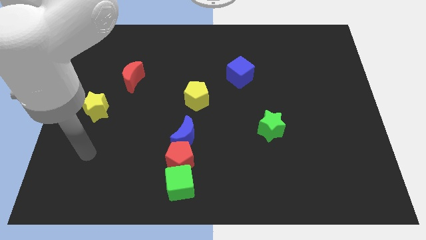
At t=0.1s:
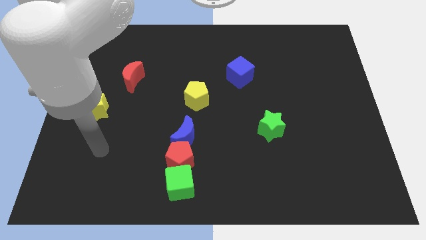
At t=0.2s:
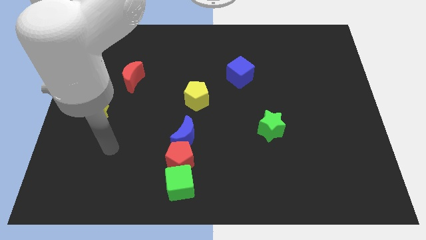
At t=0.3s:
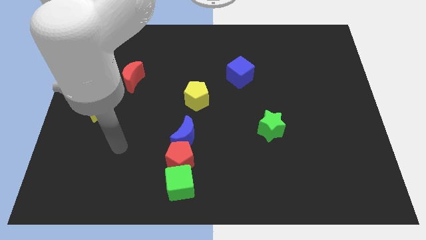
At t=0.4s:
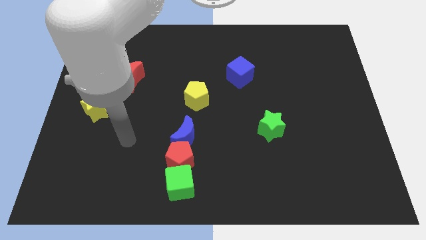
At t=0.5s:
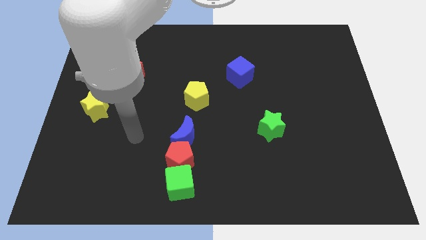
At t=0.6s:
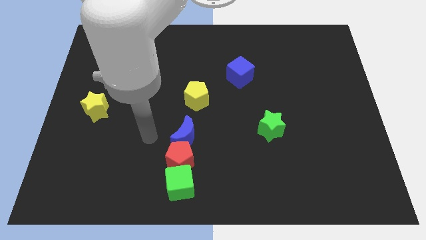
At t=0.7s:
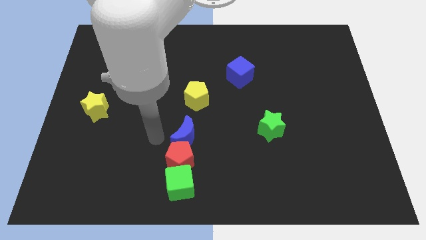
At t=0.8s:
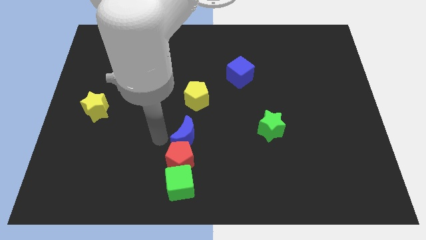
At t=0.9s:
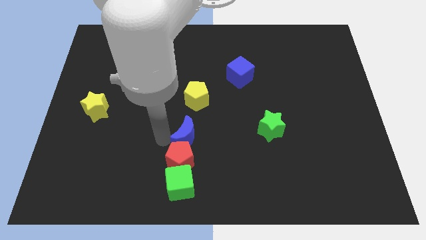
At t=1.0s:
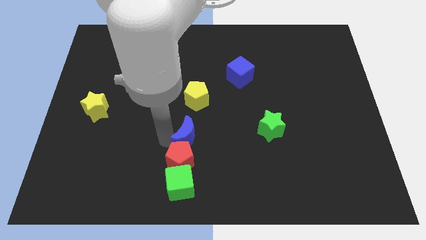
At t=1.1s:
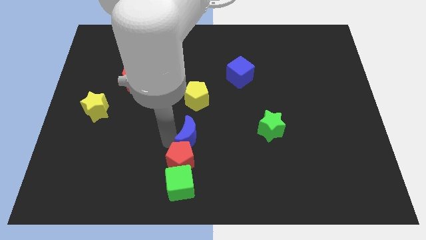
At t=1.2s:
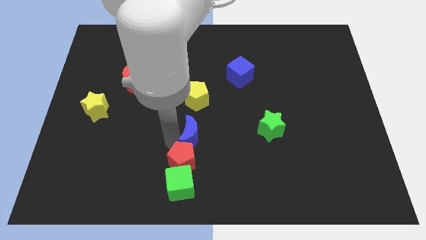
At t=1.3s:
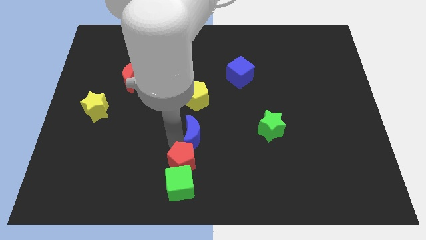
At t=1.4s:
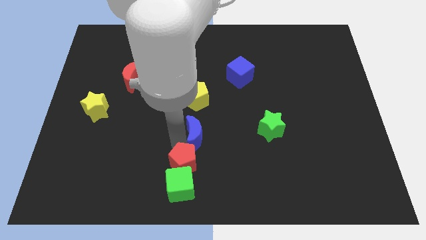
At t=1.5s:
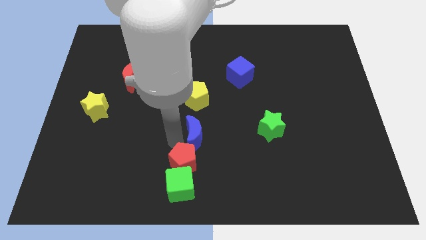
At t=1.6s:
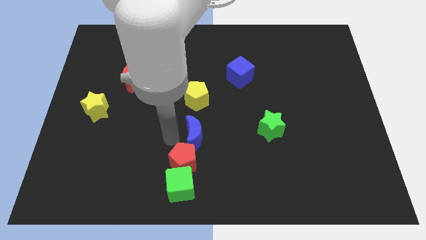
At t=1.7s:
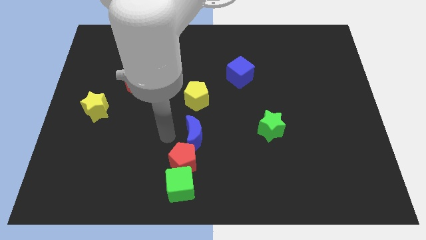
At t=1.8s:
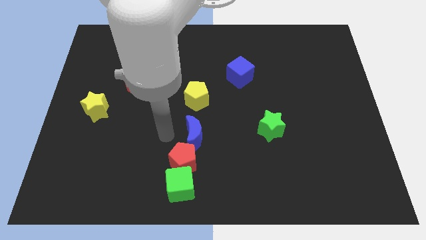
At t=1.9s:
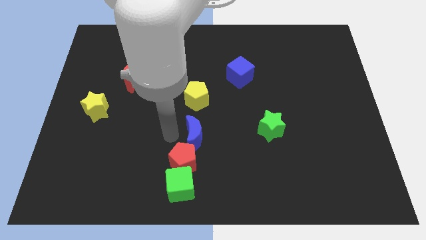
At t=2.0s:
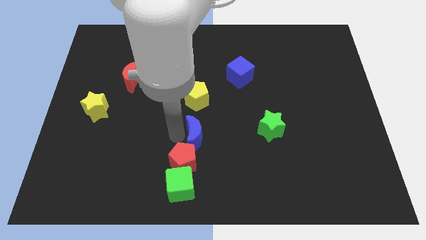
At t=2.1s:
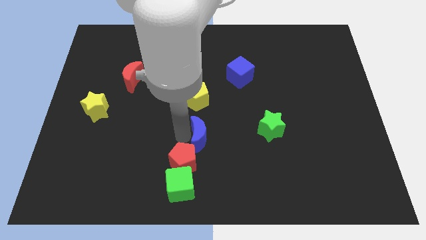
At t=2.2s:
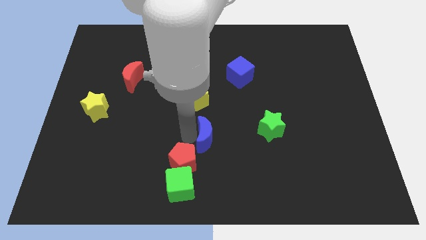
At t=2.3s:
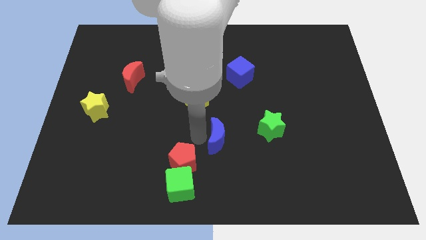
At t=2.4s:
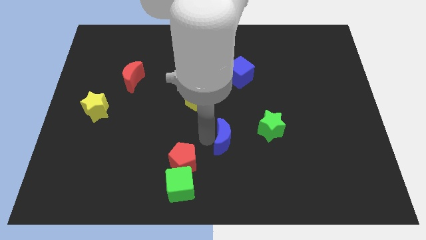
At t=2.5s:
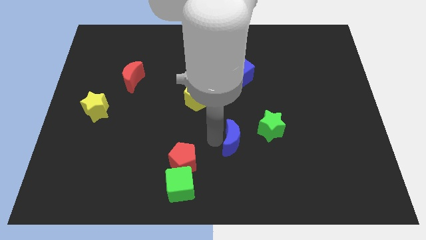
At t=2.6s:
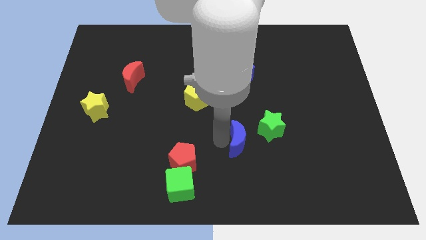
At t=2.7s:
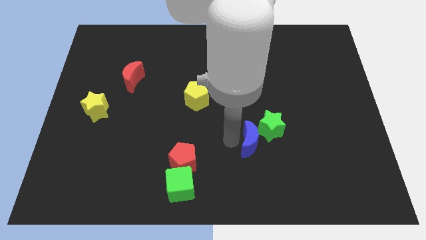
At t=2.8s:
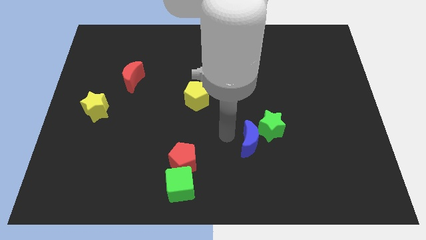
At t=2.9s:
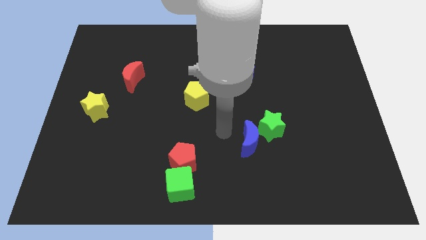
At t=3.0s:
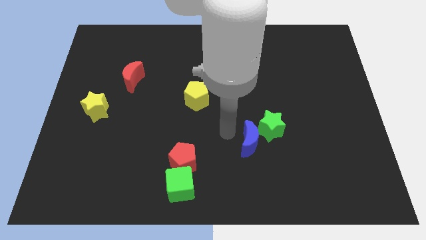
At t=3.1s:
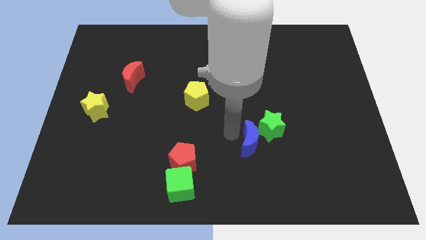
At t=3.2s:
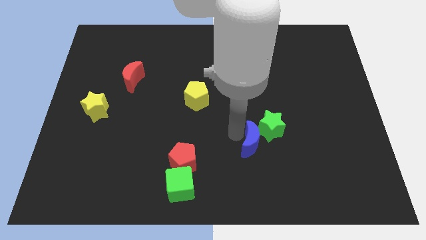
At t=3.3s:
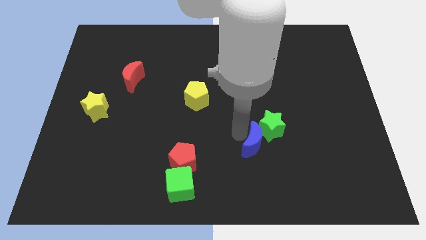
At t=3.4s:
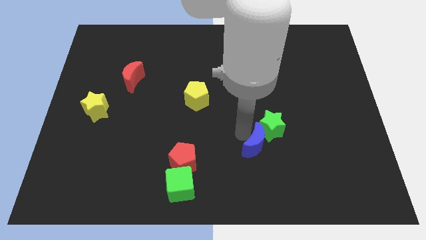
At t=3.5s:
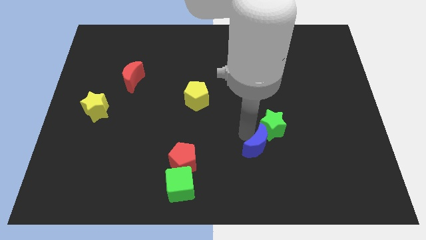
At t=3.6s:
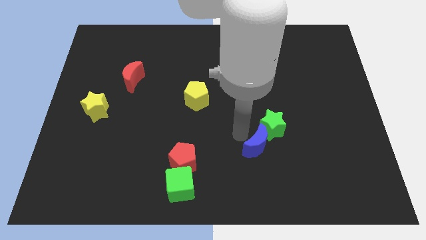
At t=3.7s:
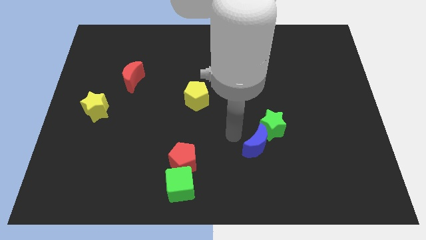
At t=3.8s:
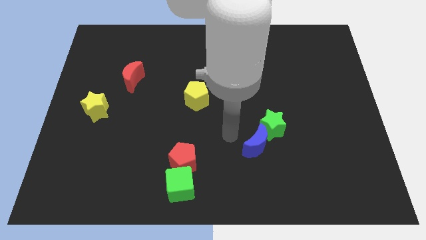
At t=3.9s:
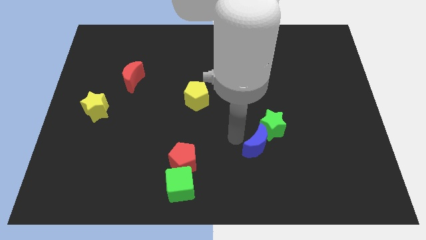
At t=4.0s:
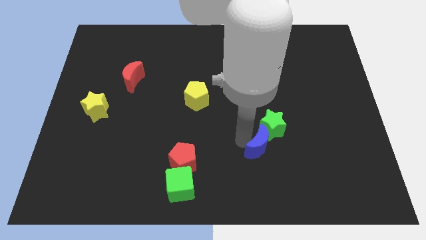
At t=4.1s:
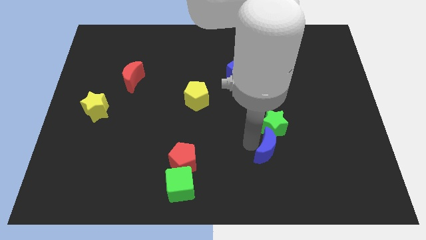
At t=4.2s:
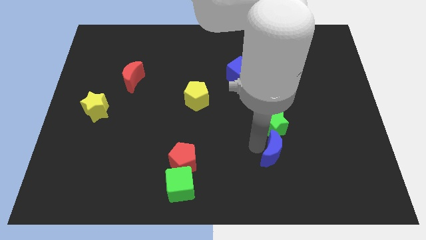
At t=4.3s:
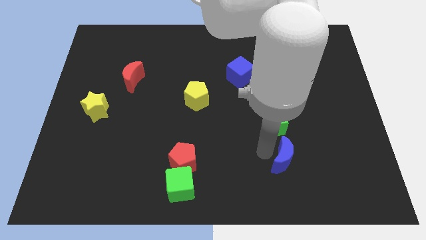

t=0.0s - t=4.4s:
push the blue moon to the right

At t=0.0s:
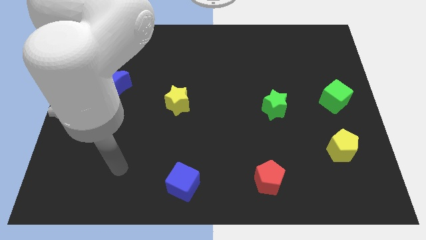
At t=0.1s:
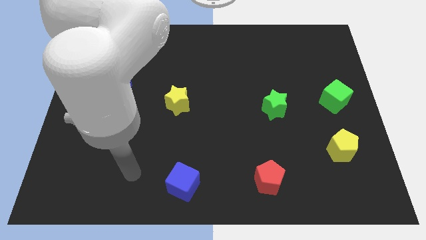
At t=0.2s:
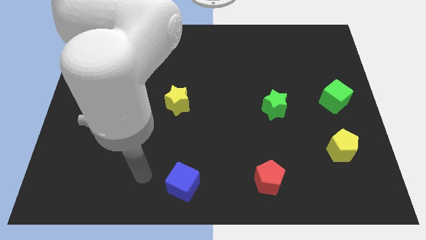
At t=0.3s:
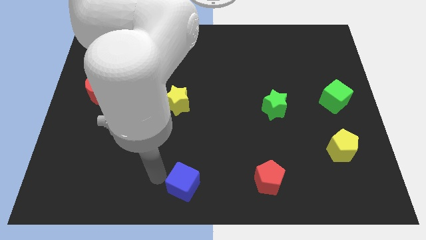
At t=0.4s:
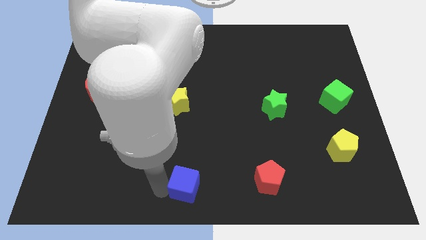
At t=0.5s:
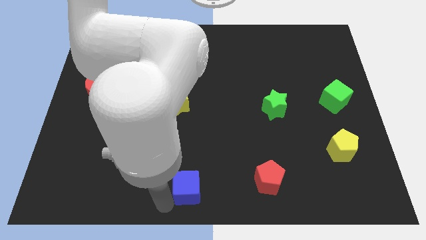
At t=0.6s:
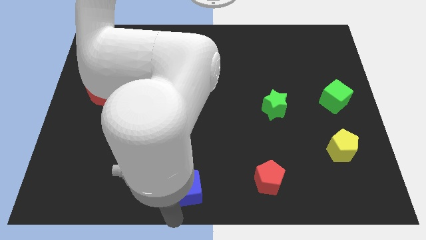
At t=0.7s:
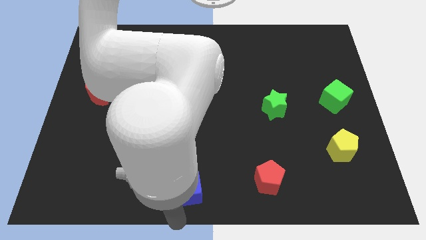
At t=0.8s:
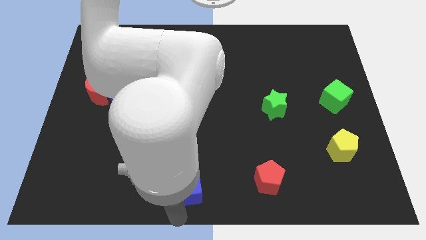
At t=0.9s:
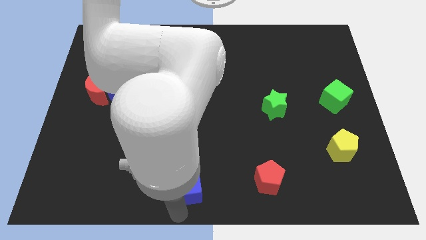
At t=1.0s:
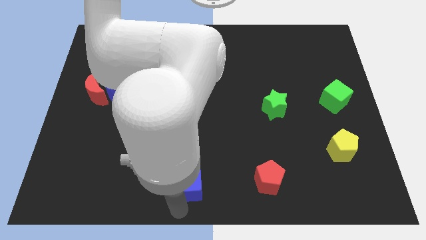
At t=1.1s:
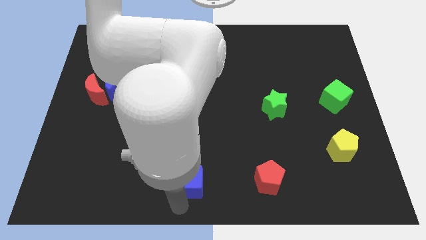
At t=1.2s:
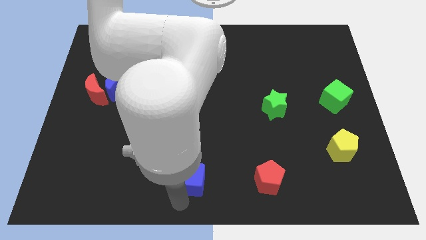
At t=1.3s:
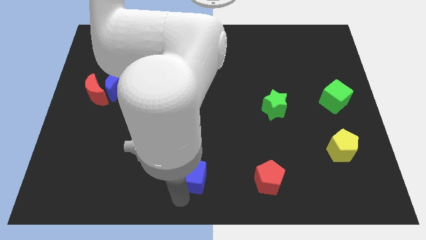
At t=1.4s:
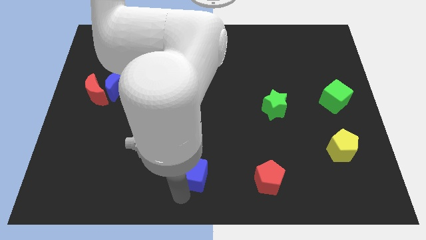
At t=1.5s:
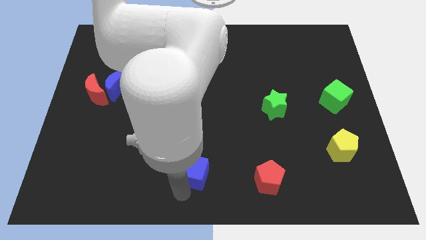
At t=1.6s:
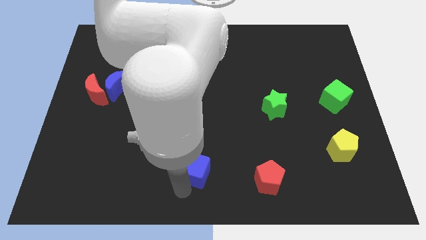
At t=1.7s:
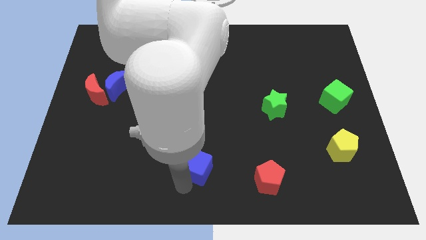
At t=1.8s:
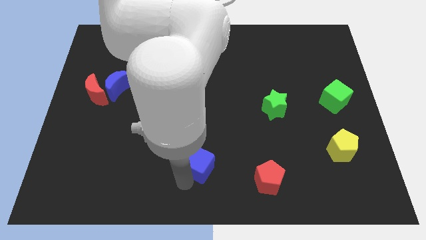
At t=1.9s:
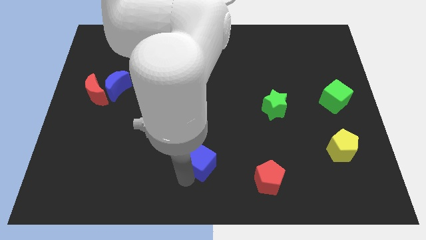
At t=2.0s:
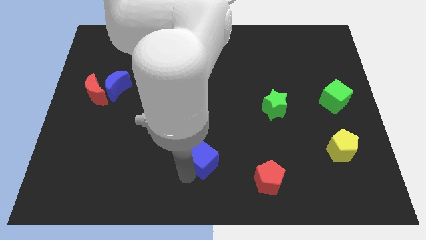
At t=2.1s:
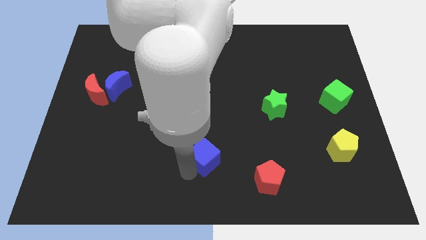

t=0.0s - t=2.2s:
move the blue cube a little upwards and right

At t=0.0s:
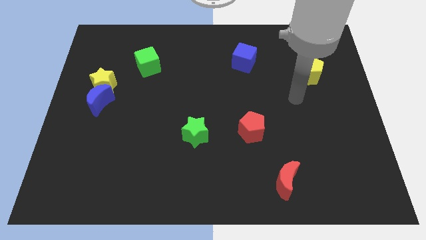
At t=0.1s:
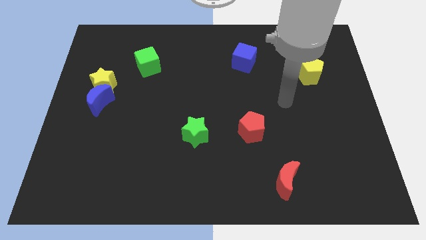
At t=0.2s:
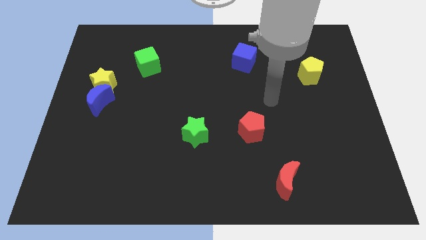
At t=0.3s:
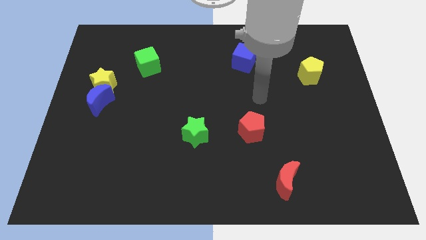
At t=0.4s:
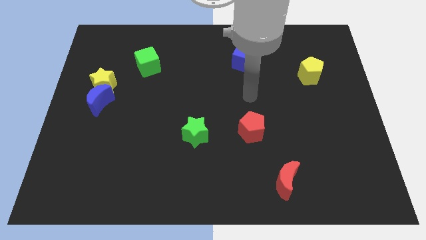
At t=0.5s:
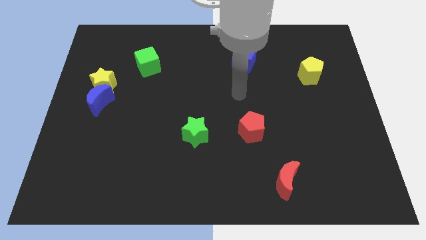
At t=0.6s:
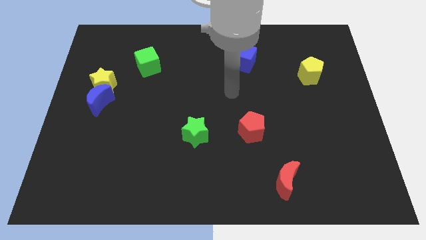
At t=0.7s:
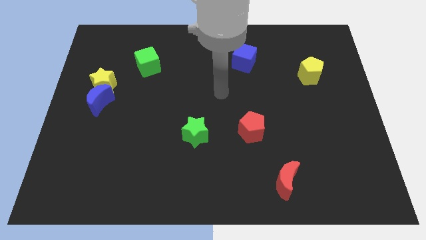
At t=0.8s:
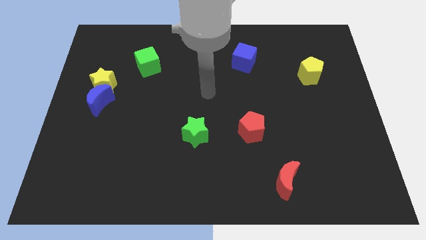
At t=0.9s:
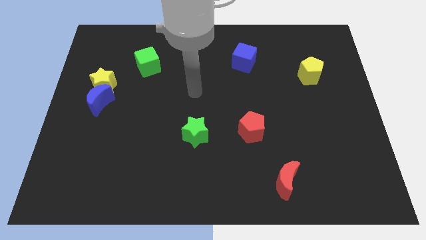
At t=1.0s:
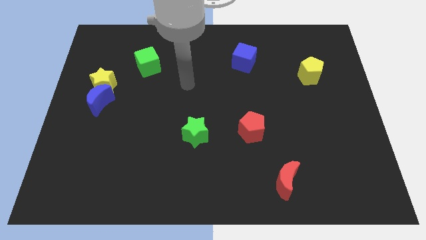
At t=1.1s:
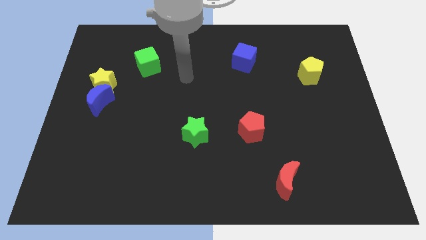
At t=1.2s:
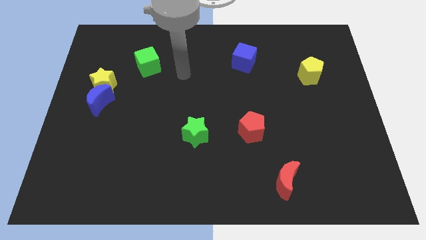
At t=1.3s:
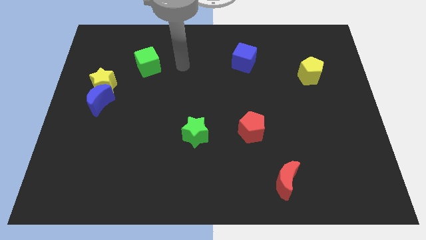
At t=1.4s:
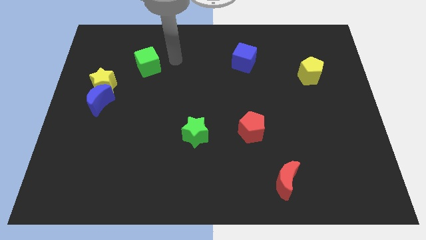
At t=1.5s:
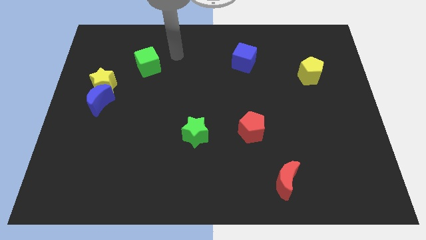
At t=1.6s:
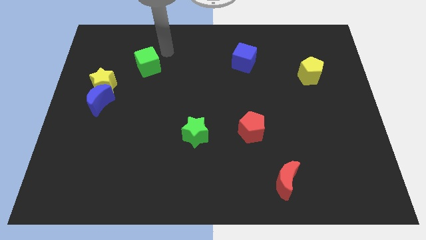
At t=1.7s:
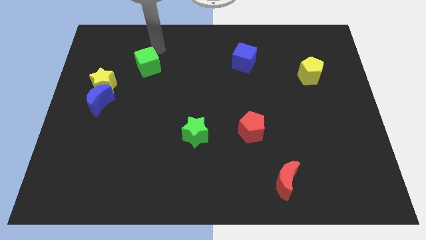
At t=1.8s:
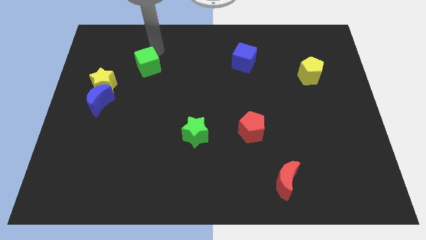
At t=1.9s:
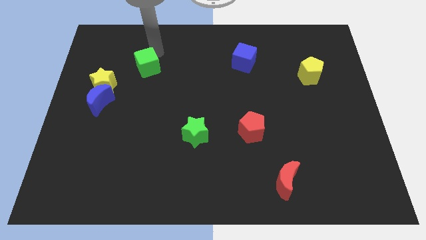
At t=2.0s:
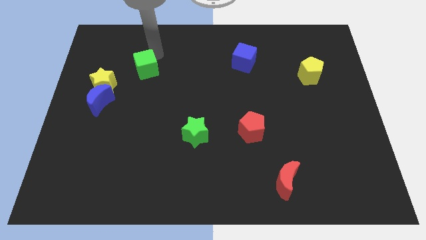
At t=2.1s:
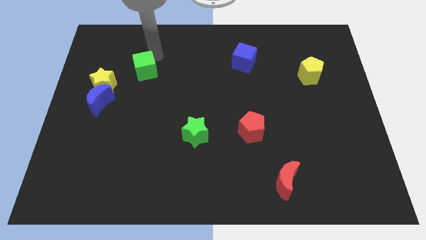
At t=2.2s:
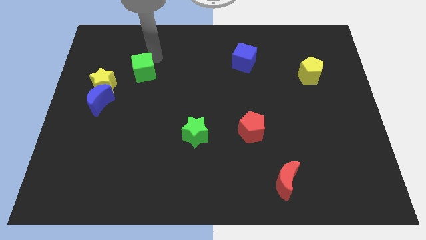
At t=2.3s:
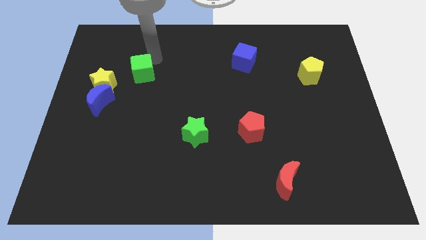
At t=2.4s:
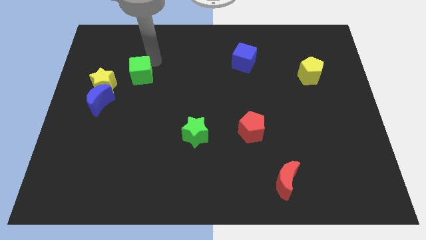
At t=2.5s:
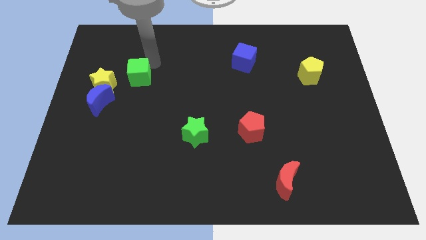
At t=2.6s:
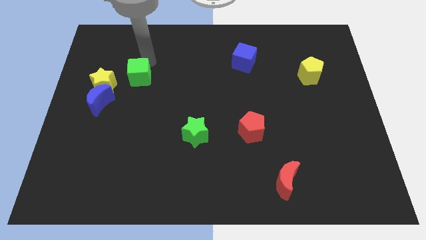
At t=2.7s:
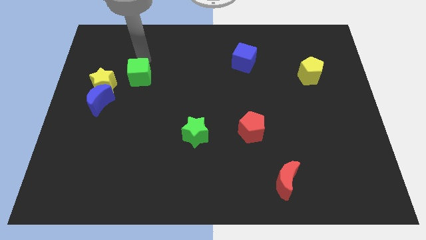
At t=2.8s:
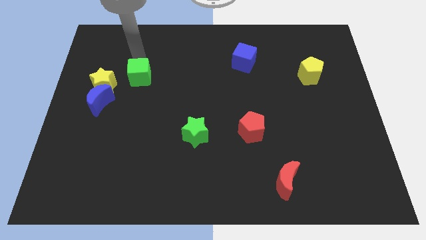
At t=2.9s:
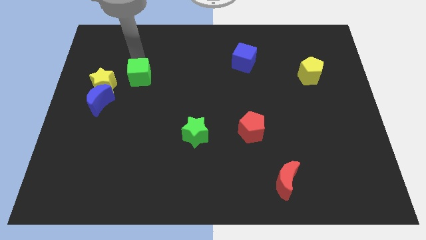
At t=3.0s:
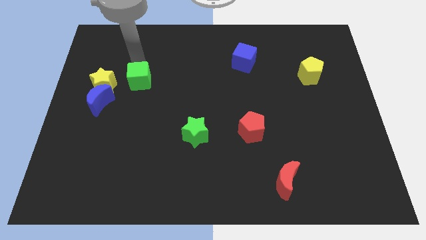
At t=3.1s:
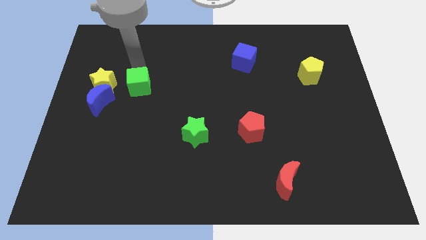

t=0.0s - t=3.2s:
push the green cube a little down
